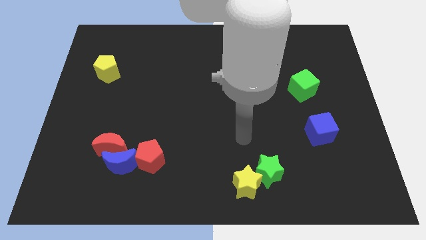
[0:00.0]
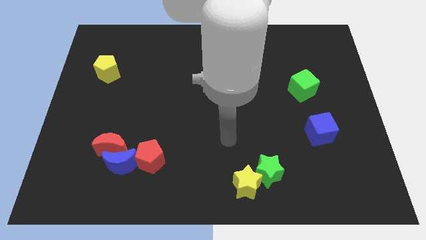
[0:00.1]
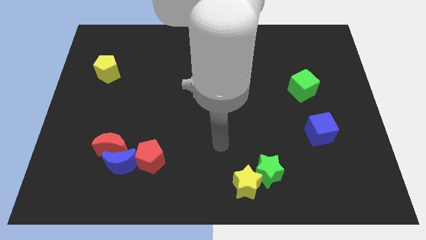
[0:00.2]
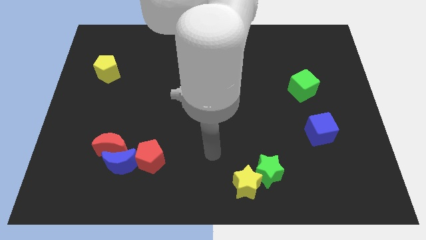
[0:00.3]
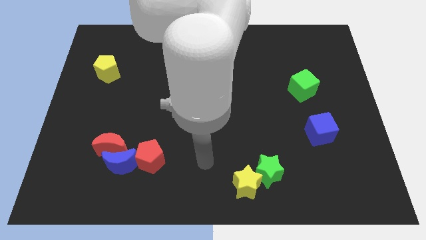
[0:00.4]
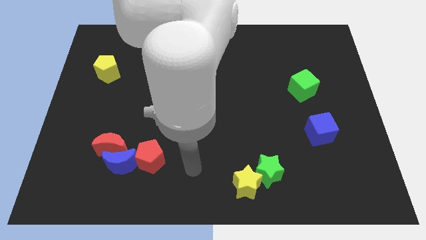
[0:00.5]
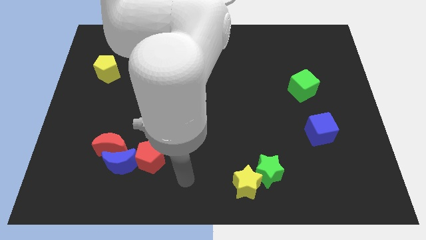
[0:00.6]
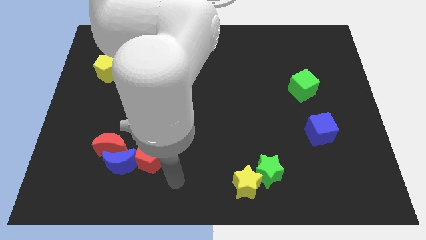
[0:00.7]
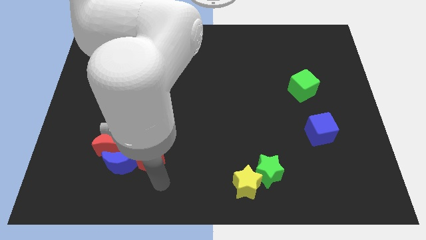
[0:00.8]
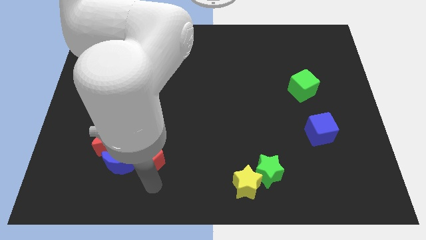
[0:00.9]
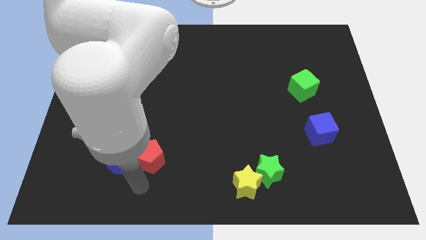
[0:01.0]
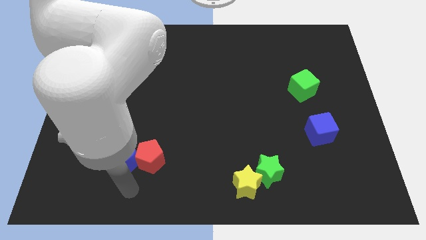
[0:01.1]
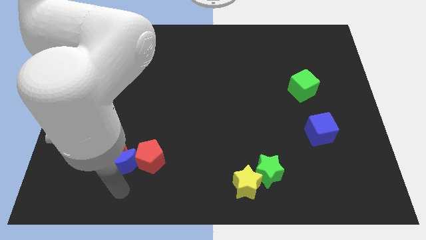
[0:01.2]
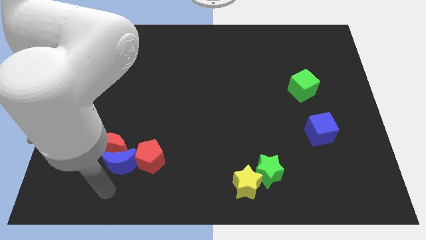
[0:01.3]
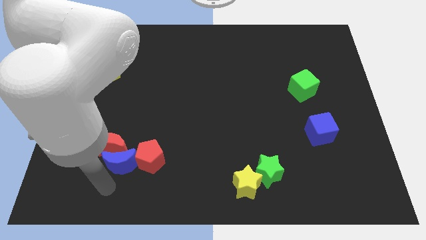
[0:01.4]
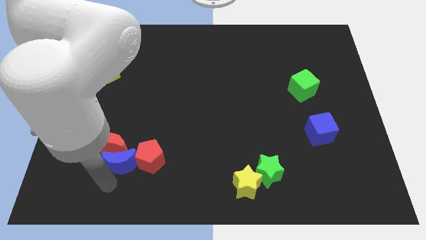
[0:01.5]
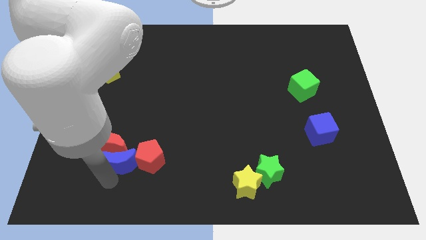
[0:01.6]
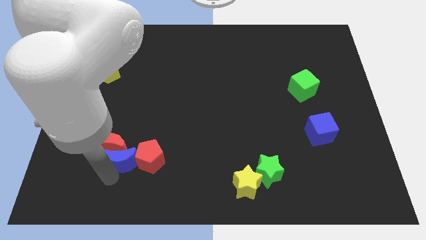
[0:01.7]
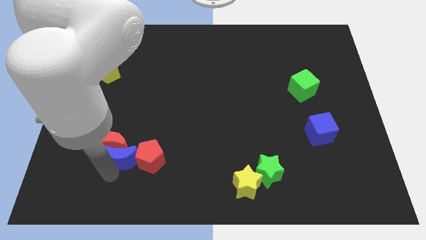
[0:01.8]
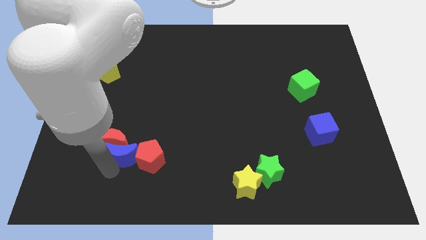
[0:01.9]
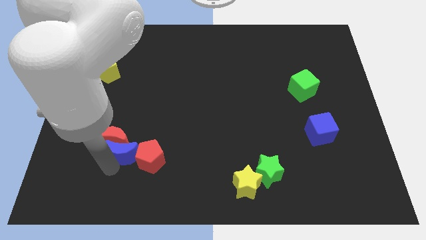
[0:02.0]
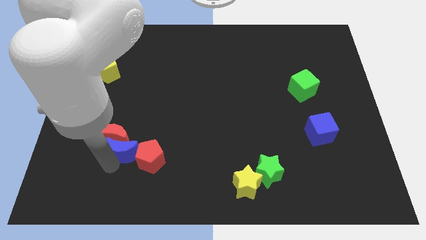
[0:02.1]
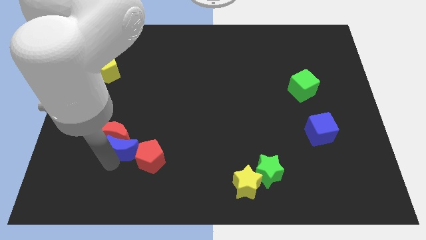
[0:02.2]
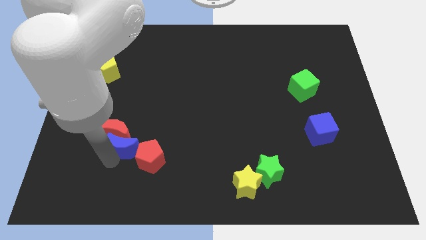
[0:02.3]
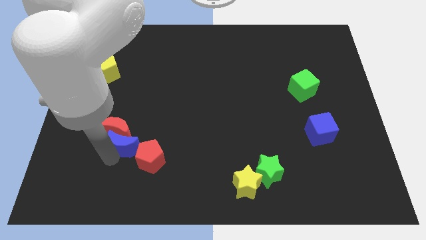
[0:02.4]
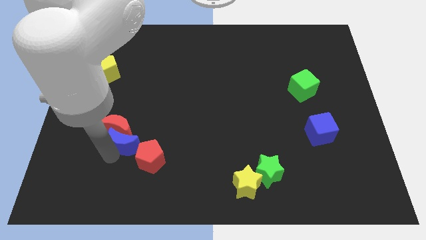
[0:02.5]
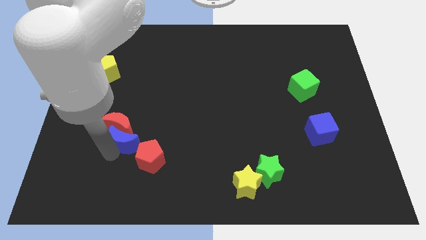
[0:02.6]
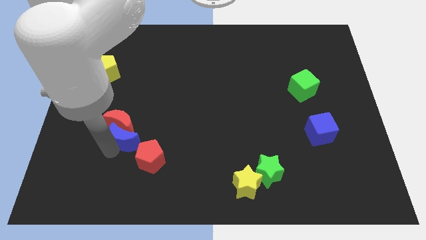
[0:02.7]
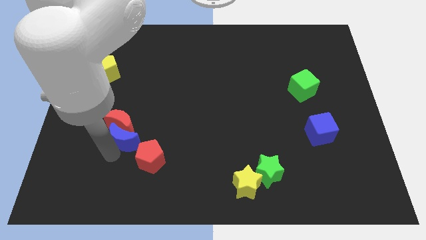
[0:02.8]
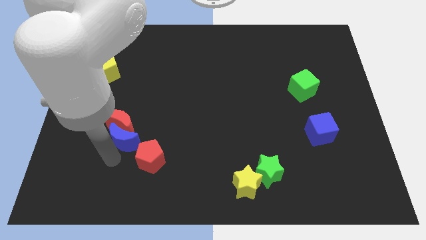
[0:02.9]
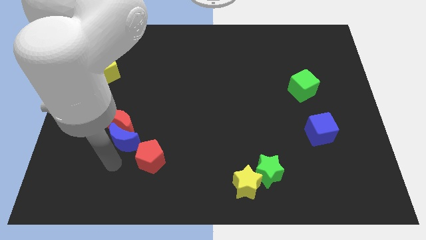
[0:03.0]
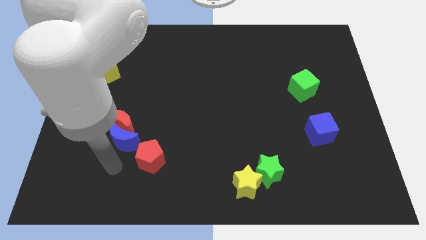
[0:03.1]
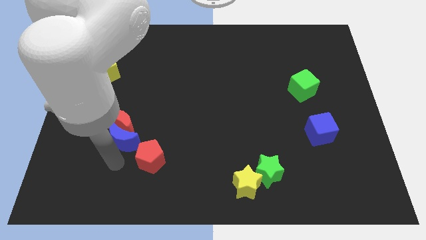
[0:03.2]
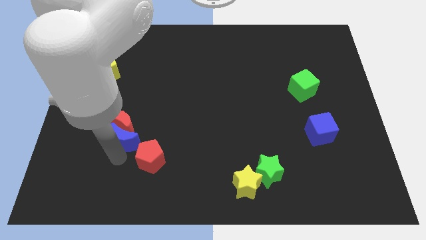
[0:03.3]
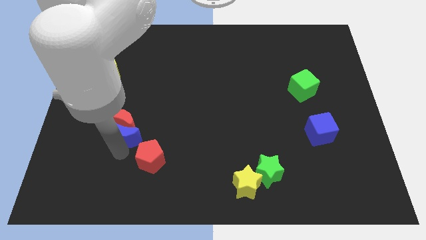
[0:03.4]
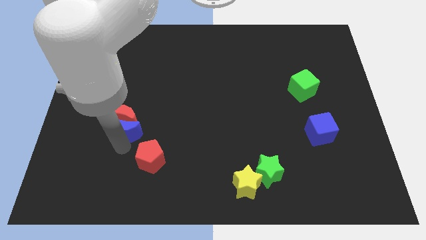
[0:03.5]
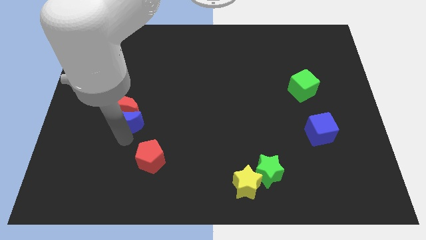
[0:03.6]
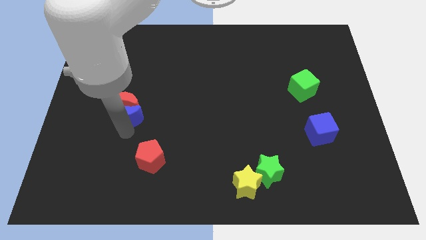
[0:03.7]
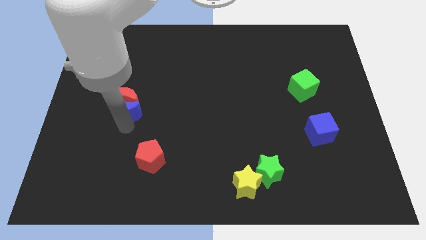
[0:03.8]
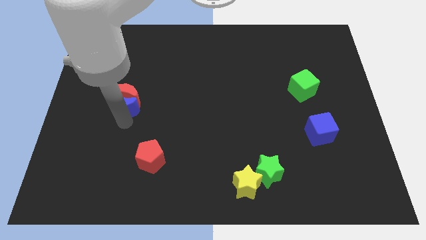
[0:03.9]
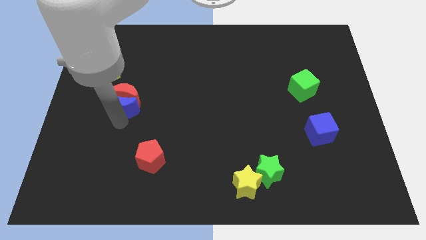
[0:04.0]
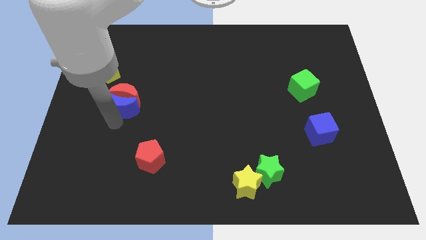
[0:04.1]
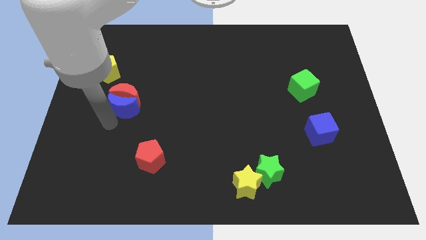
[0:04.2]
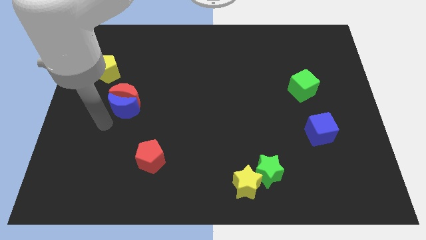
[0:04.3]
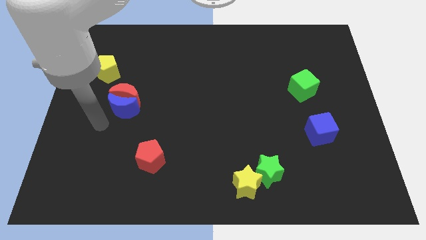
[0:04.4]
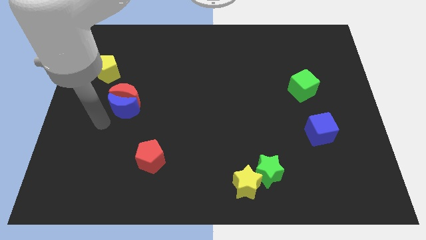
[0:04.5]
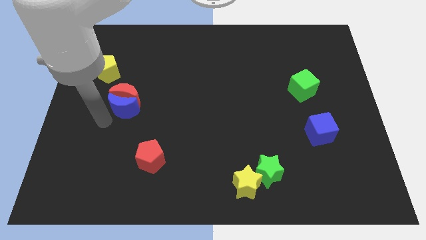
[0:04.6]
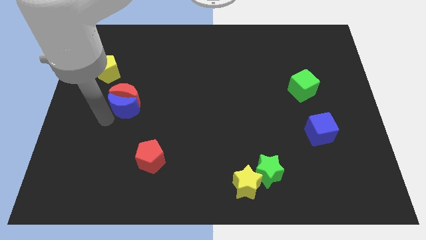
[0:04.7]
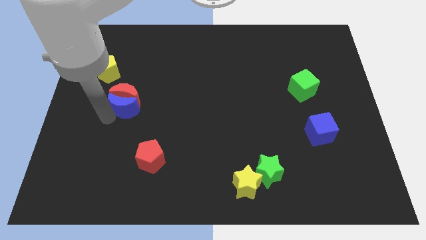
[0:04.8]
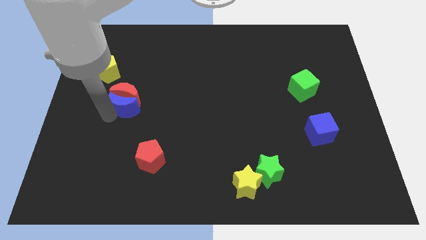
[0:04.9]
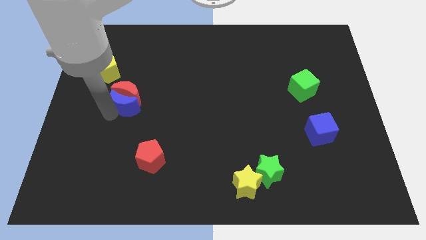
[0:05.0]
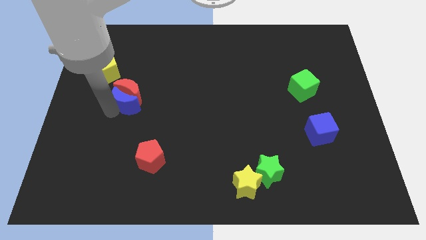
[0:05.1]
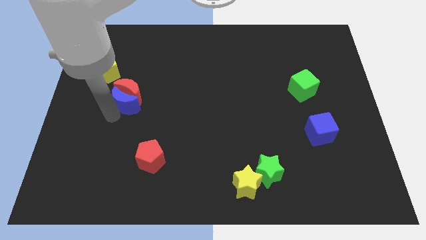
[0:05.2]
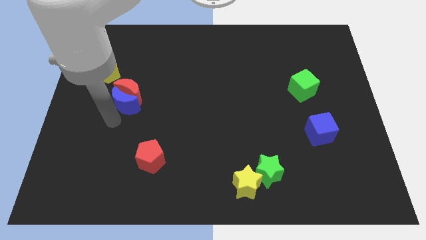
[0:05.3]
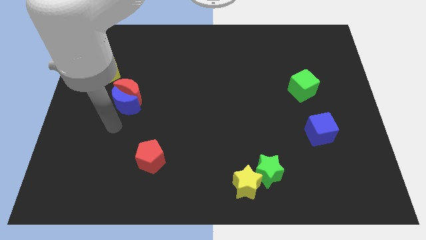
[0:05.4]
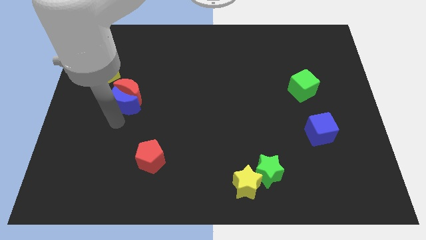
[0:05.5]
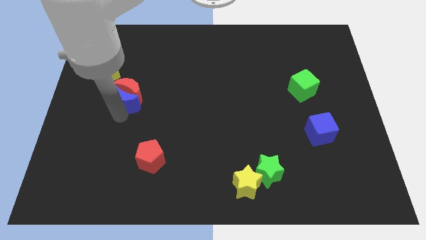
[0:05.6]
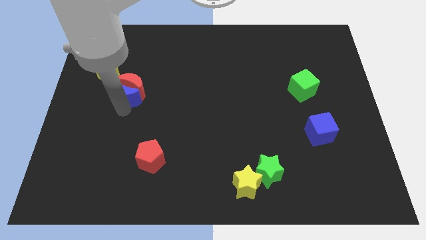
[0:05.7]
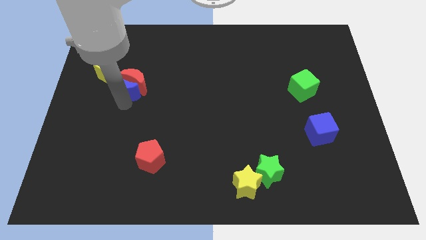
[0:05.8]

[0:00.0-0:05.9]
push the blue moon upwards

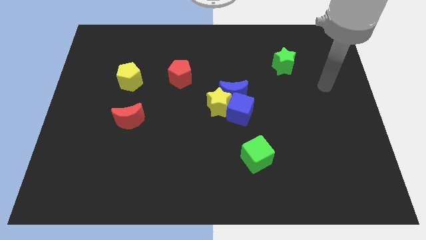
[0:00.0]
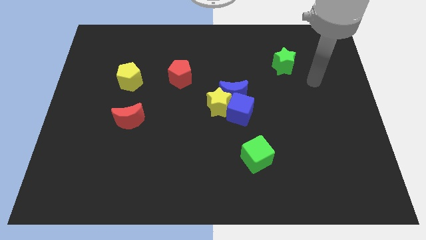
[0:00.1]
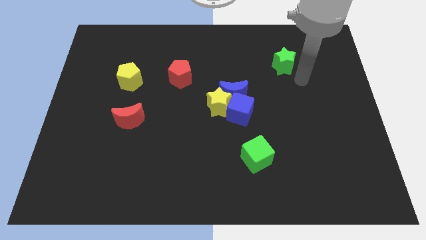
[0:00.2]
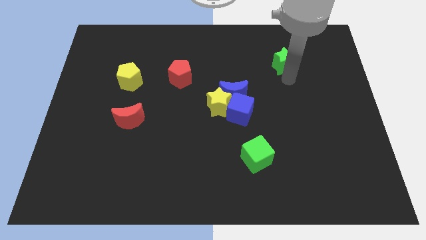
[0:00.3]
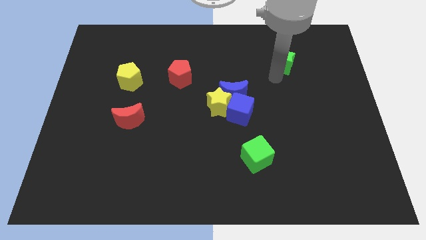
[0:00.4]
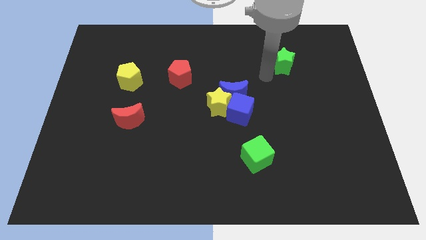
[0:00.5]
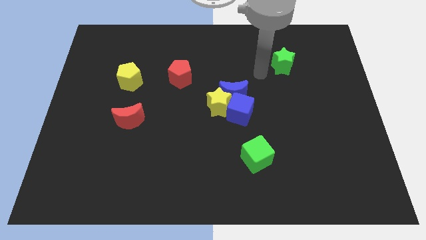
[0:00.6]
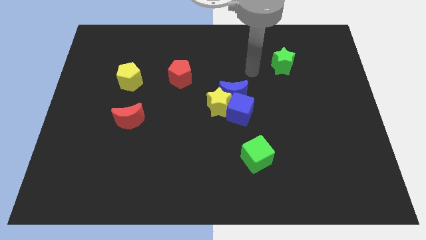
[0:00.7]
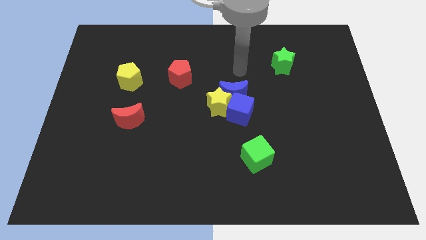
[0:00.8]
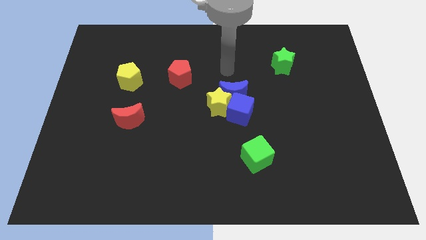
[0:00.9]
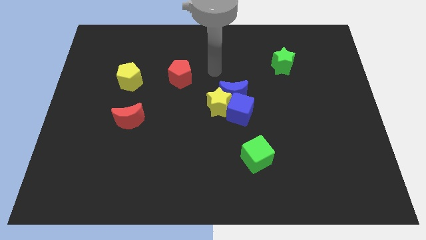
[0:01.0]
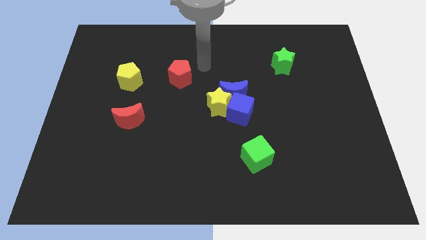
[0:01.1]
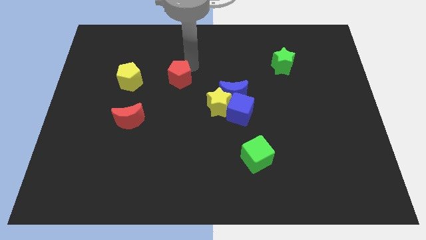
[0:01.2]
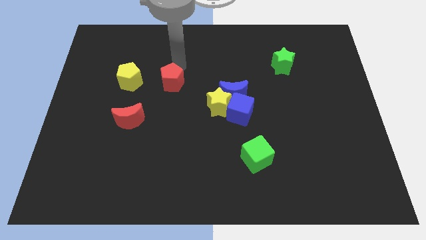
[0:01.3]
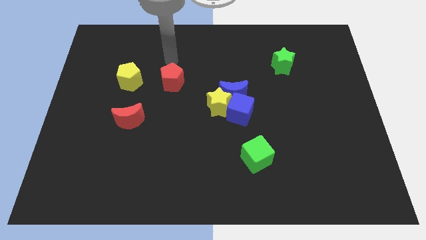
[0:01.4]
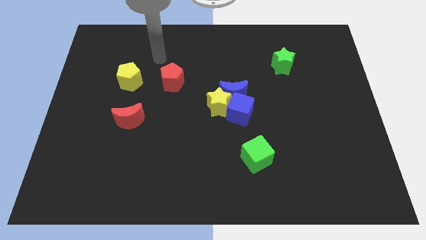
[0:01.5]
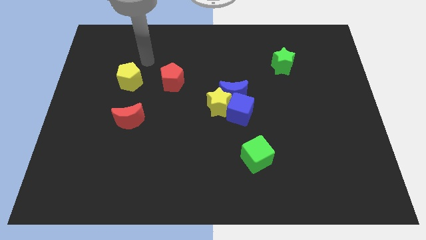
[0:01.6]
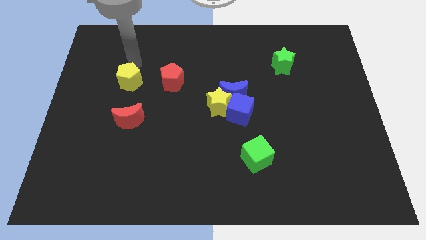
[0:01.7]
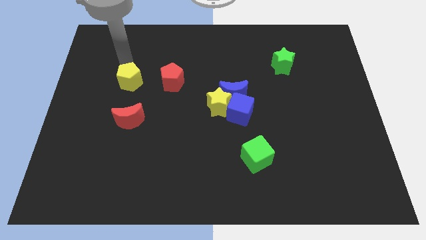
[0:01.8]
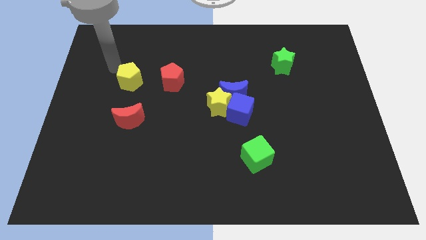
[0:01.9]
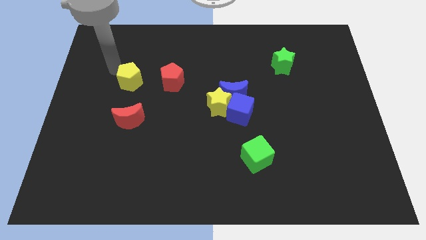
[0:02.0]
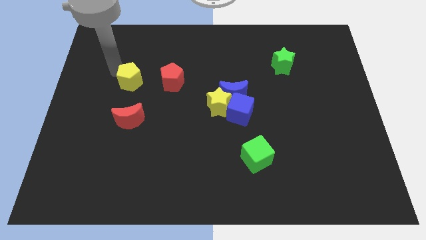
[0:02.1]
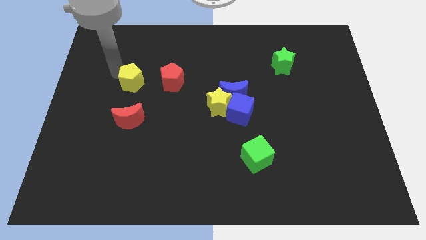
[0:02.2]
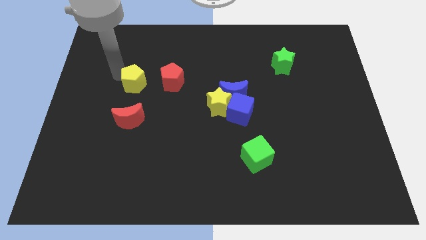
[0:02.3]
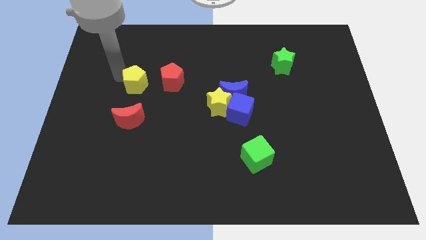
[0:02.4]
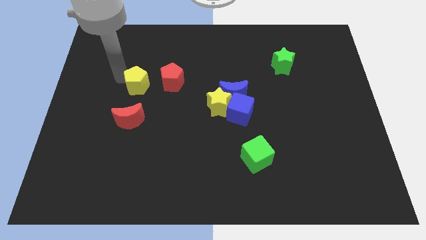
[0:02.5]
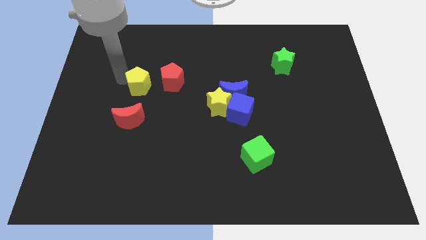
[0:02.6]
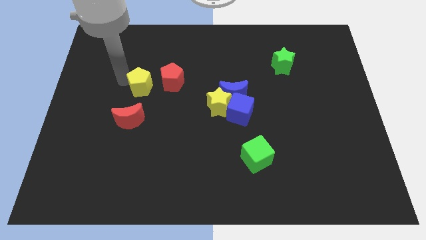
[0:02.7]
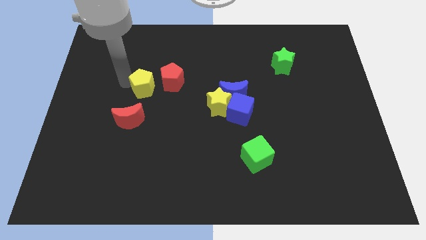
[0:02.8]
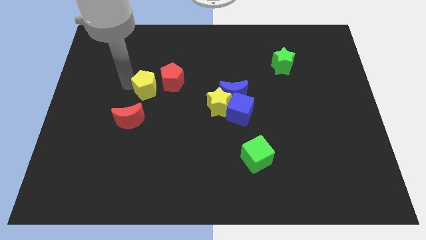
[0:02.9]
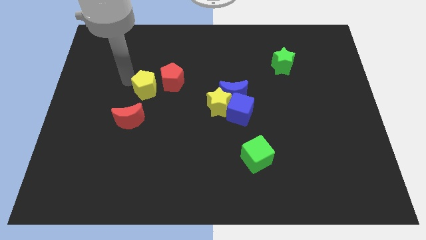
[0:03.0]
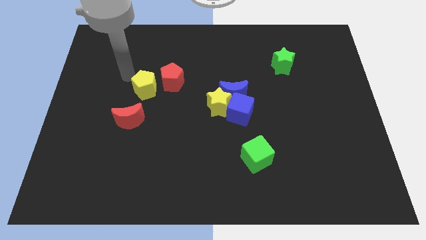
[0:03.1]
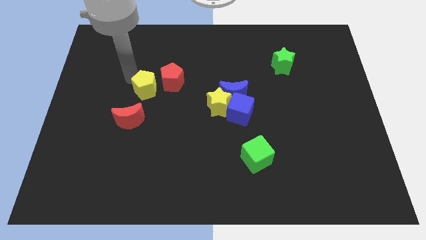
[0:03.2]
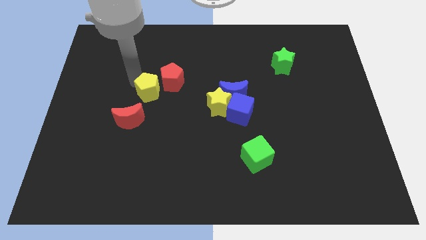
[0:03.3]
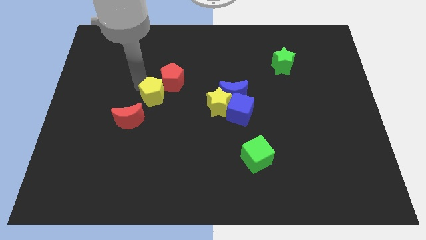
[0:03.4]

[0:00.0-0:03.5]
slide the yellow pentagon a bit downwards and to the right diagonally
